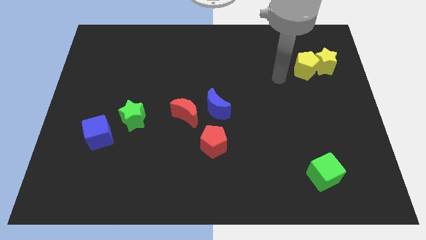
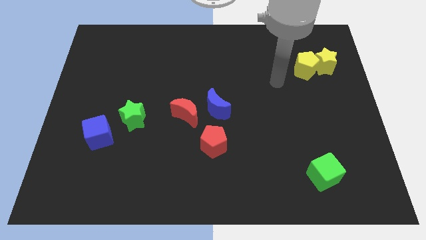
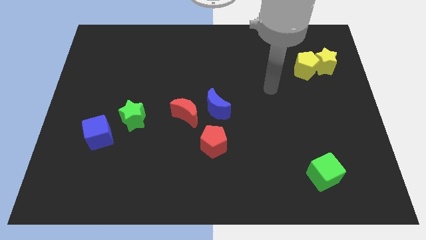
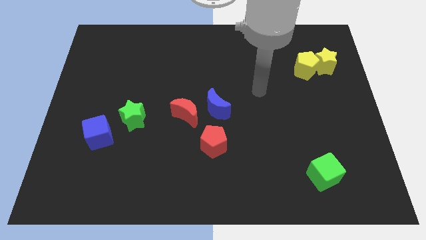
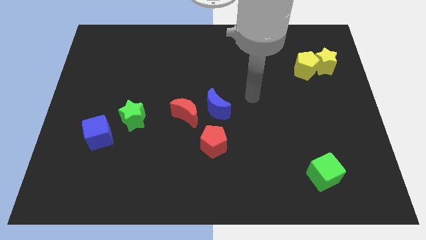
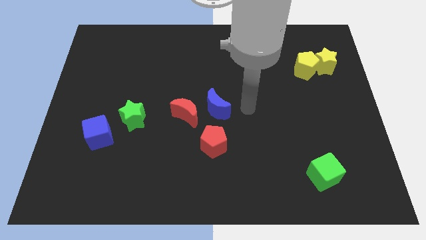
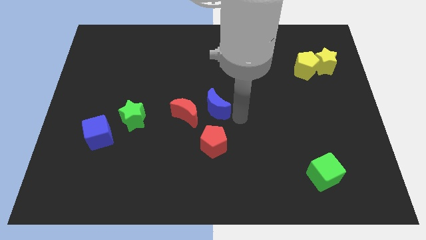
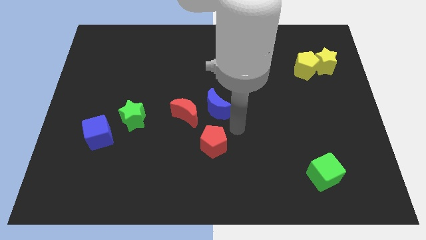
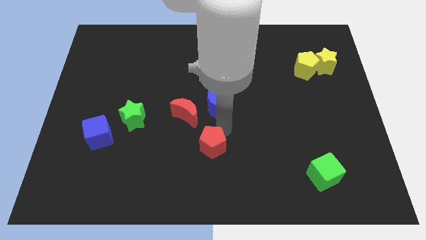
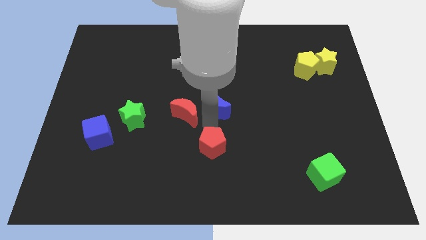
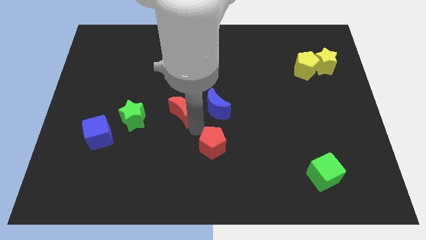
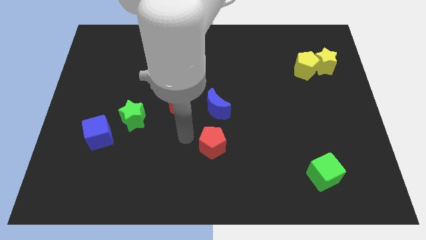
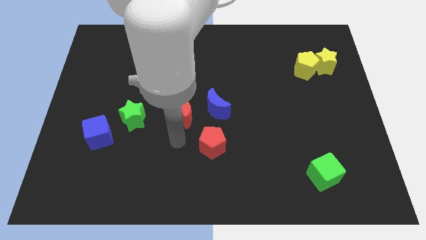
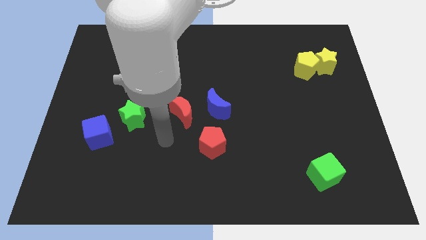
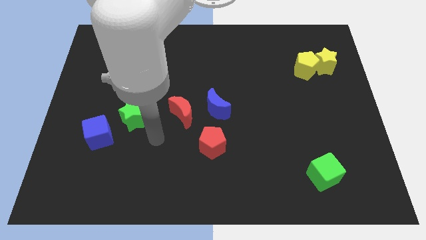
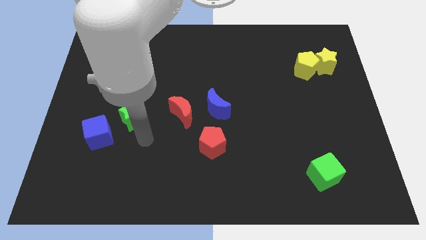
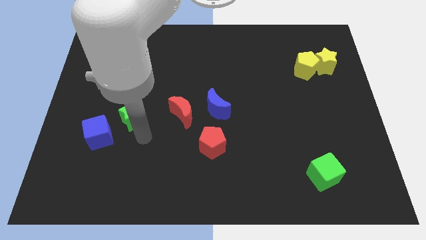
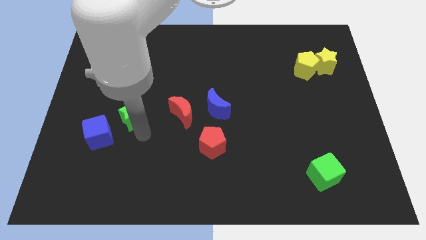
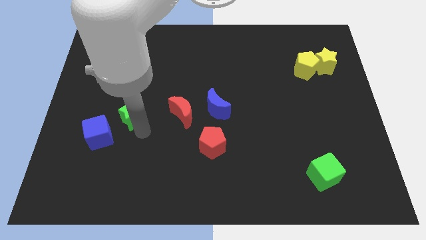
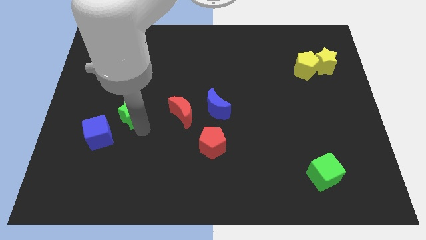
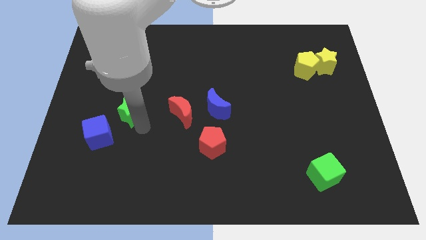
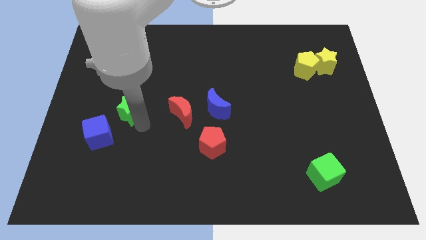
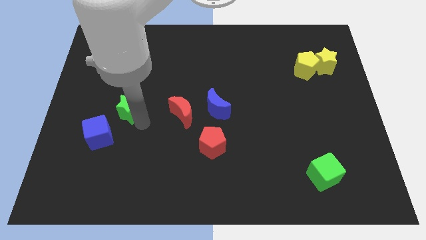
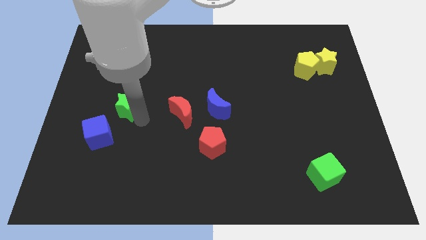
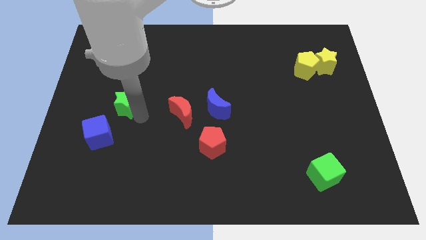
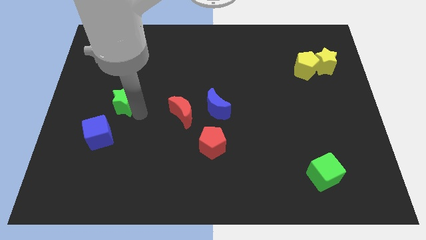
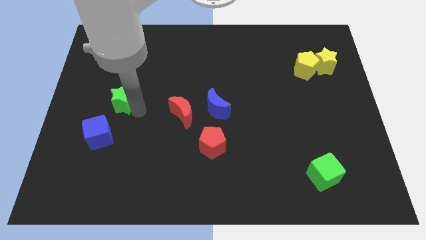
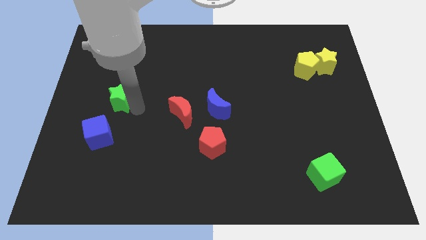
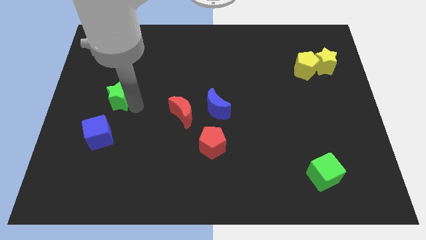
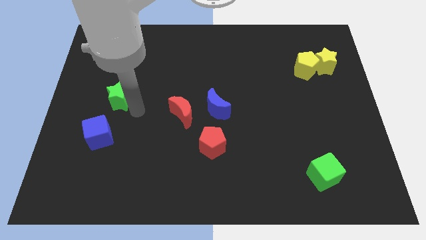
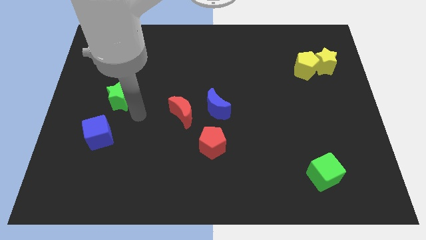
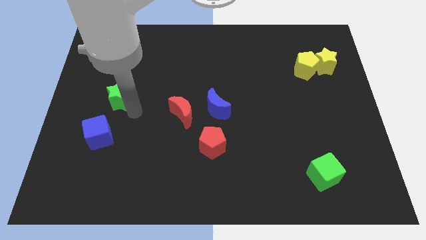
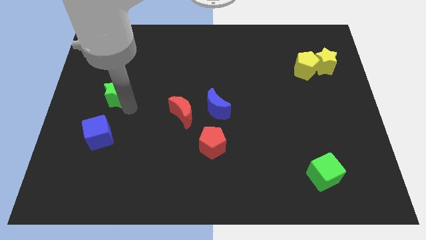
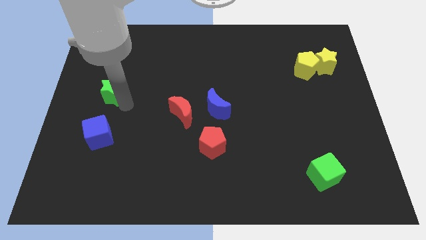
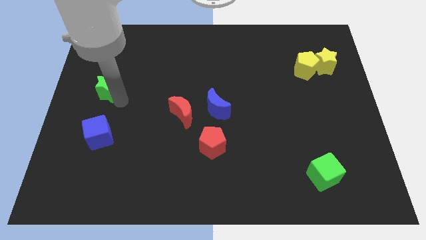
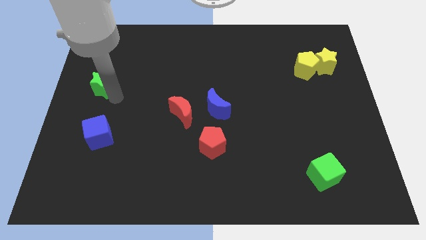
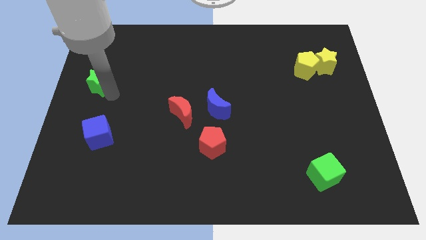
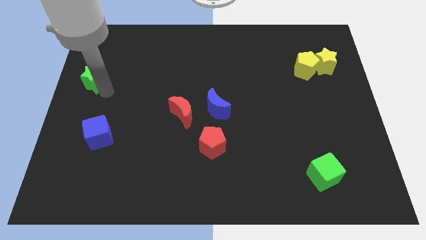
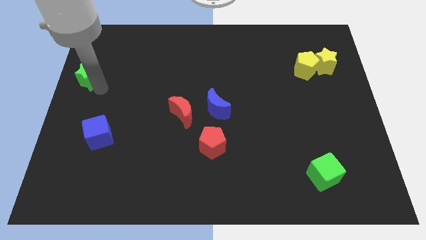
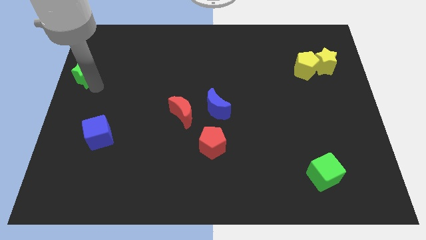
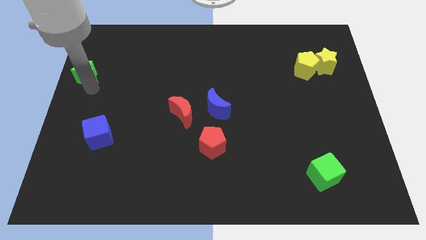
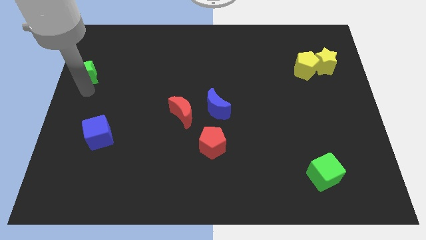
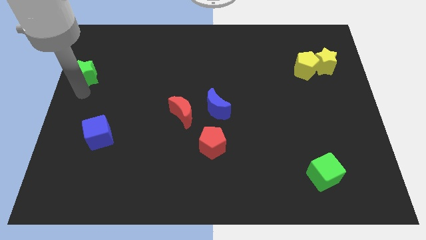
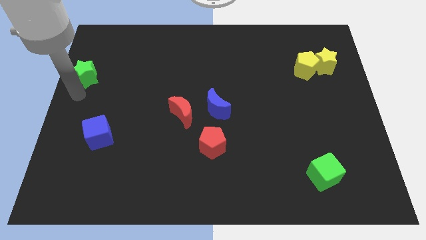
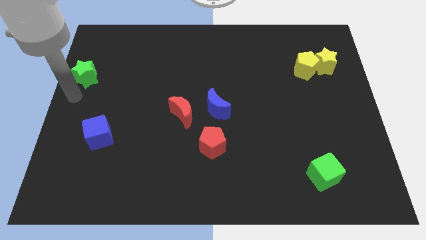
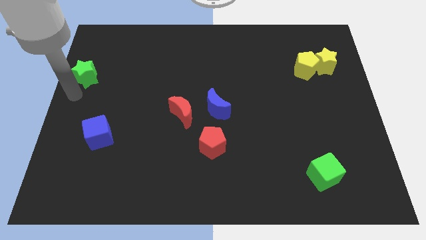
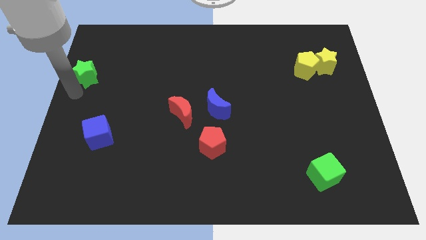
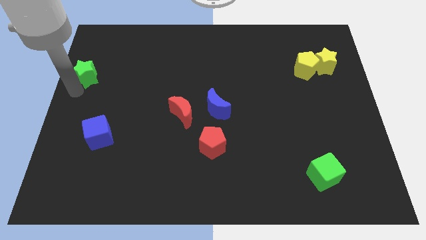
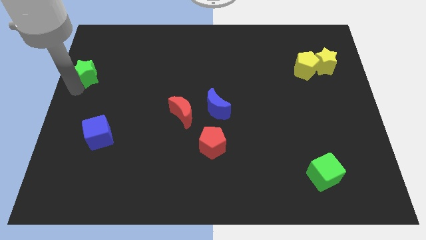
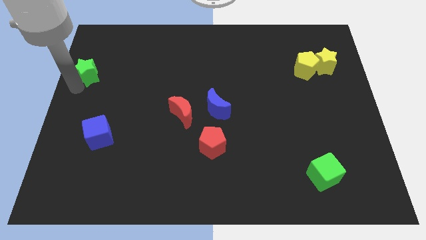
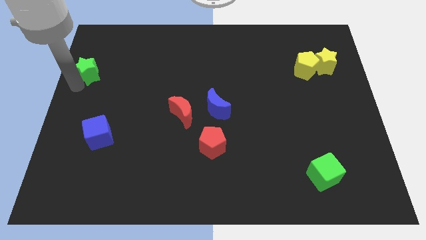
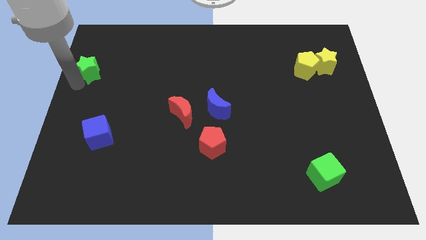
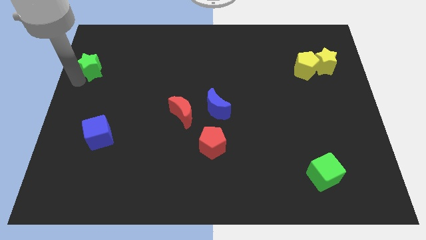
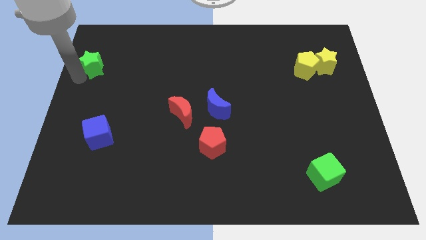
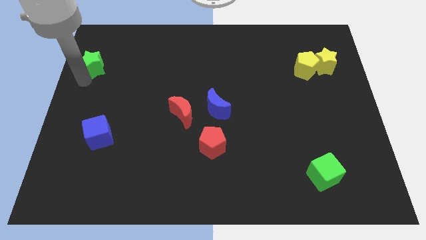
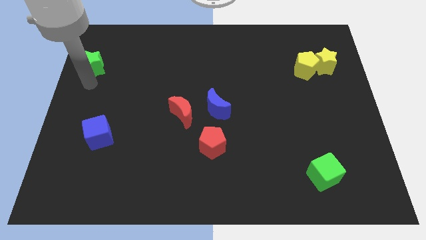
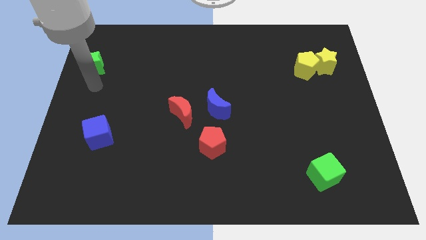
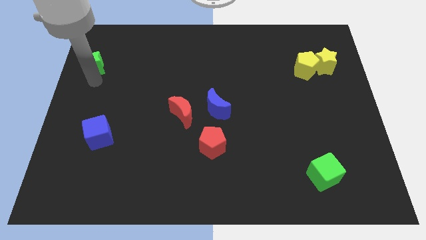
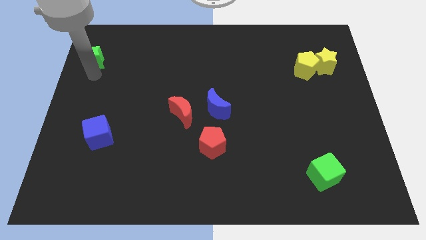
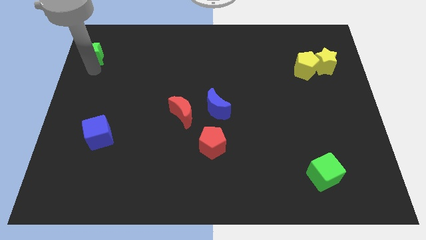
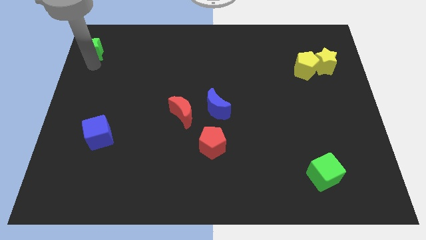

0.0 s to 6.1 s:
slide the green star to the upper left corner
